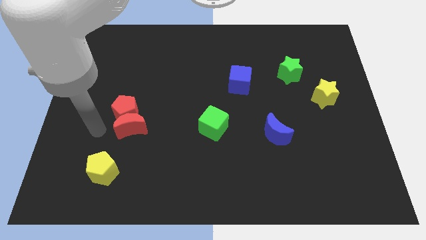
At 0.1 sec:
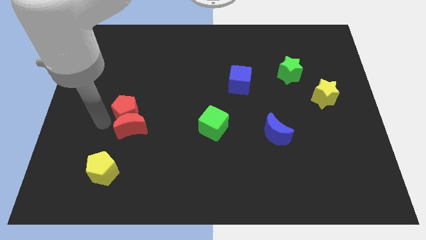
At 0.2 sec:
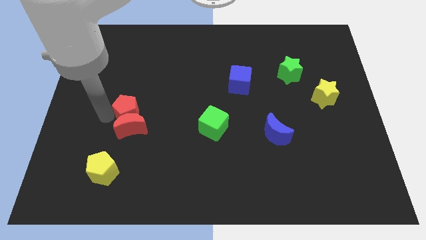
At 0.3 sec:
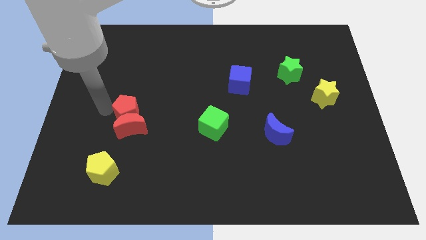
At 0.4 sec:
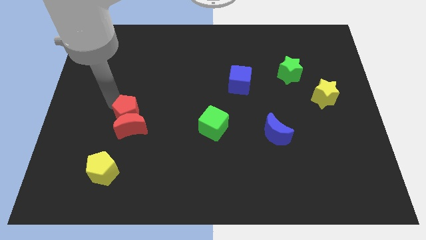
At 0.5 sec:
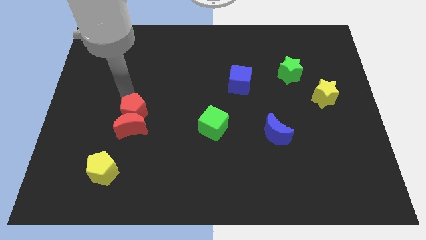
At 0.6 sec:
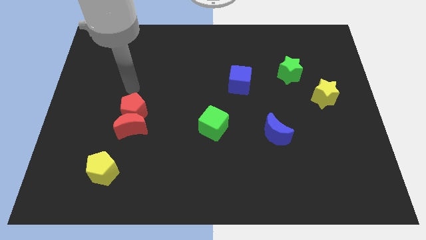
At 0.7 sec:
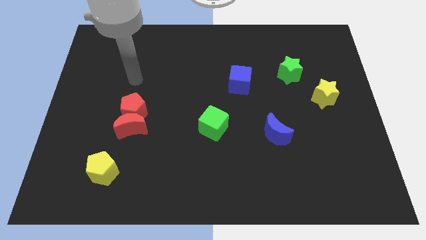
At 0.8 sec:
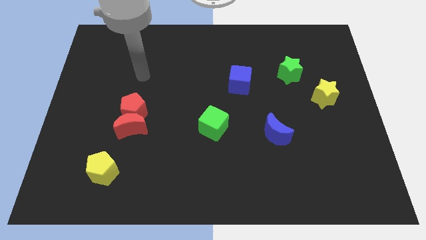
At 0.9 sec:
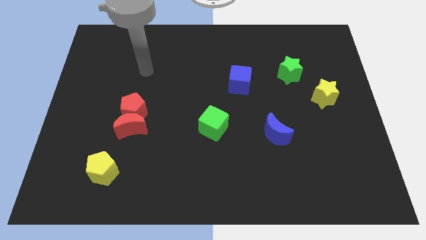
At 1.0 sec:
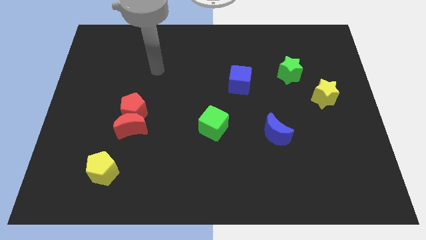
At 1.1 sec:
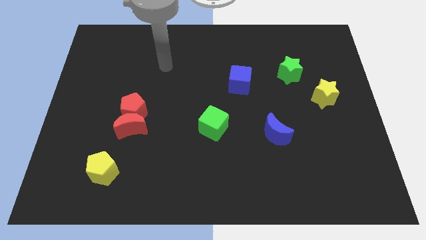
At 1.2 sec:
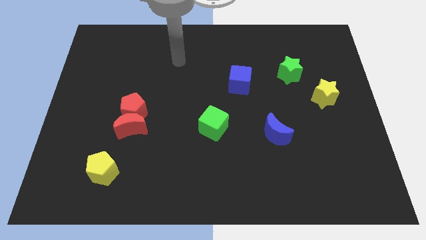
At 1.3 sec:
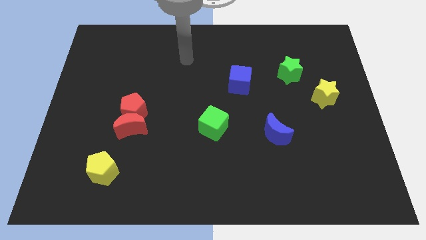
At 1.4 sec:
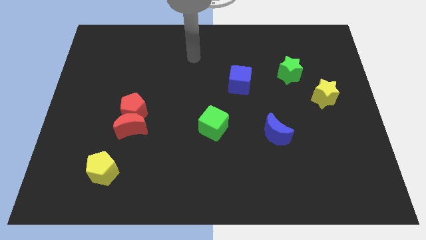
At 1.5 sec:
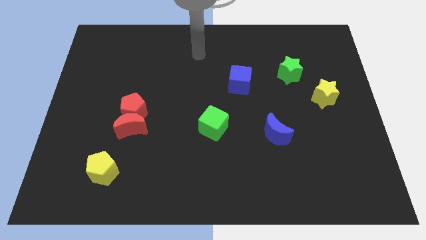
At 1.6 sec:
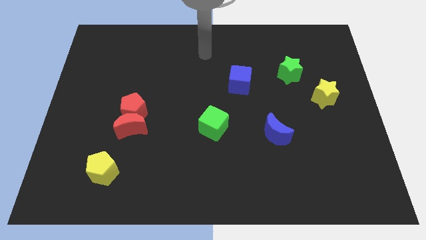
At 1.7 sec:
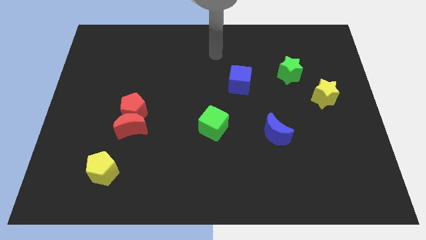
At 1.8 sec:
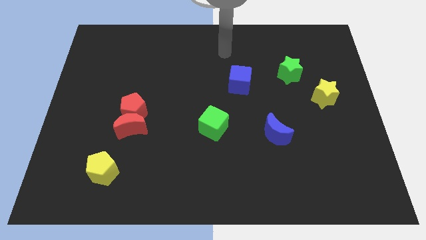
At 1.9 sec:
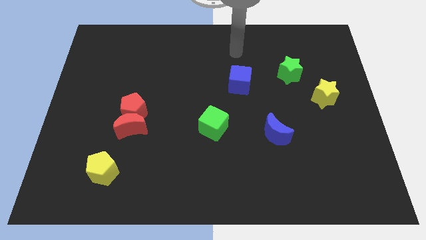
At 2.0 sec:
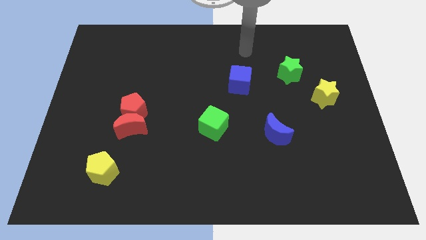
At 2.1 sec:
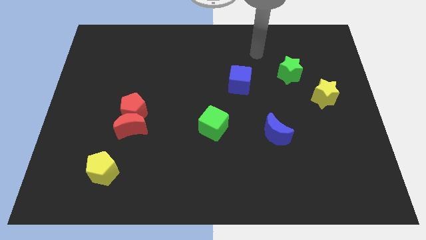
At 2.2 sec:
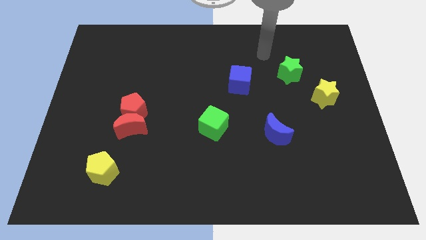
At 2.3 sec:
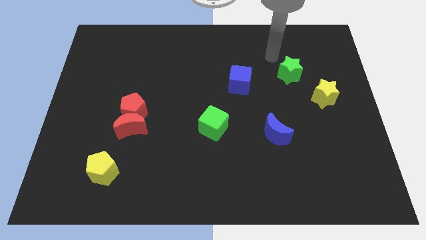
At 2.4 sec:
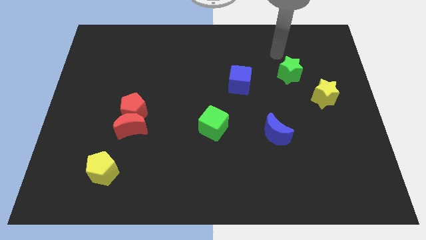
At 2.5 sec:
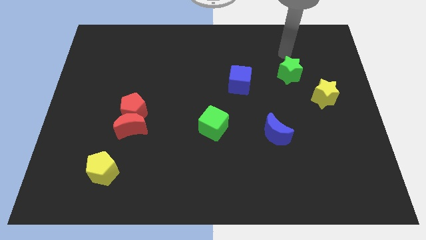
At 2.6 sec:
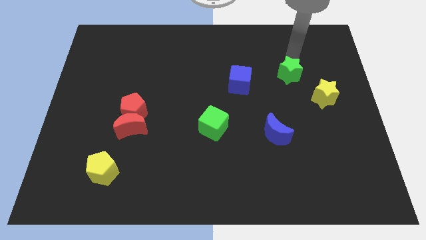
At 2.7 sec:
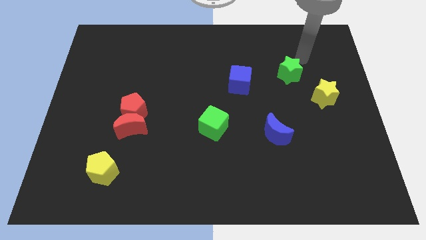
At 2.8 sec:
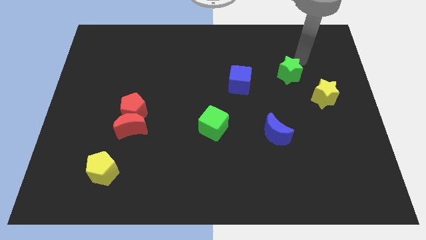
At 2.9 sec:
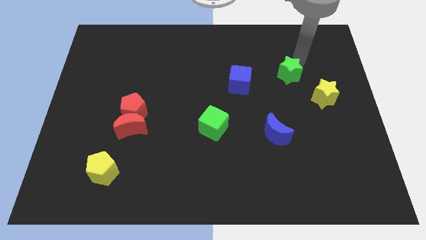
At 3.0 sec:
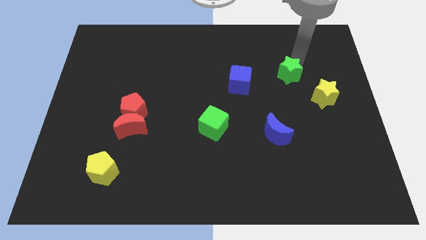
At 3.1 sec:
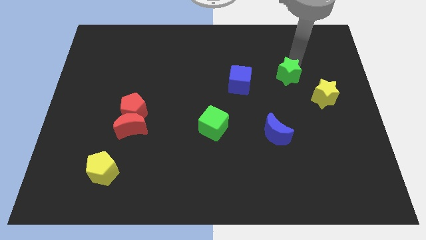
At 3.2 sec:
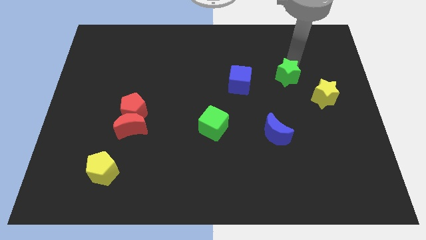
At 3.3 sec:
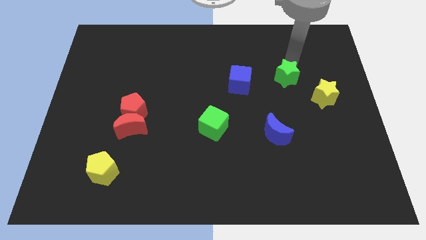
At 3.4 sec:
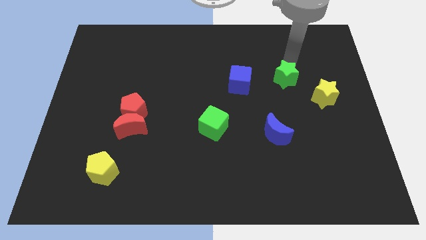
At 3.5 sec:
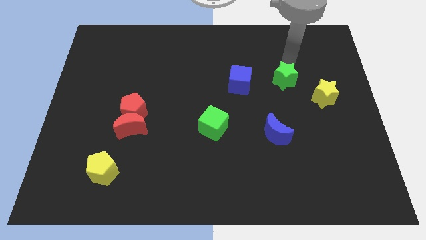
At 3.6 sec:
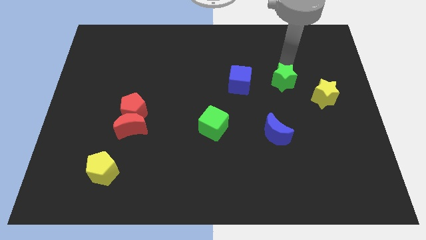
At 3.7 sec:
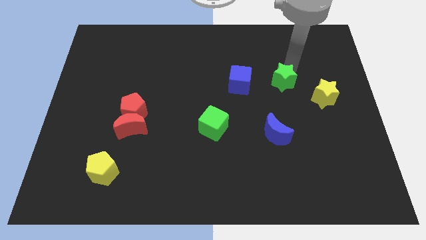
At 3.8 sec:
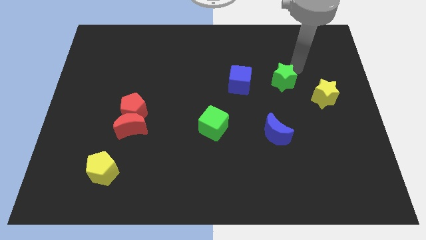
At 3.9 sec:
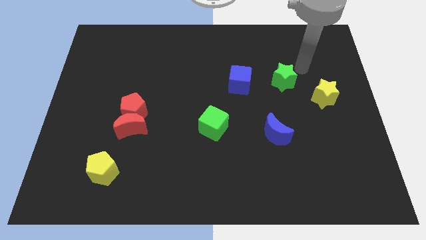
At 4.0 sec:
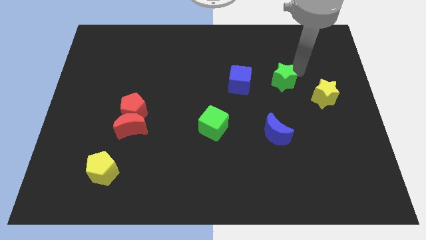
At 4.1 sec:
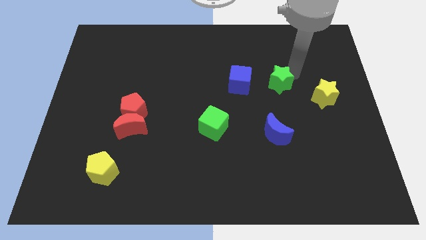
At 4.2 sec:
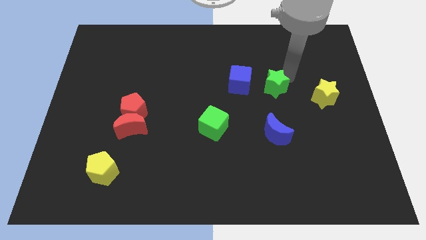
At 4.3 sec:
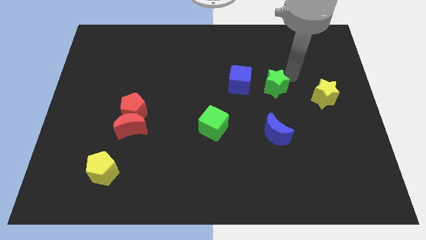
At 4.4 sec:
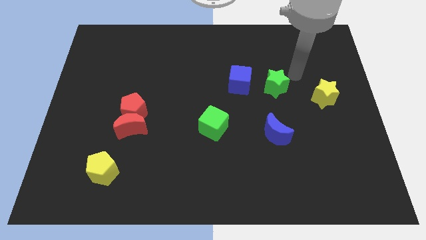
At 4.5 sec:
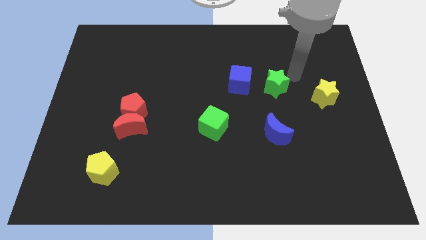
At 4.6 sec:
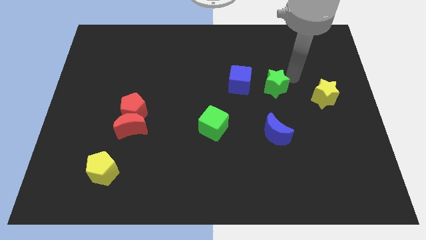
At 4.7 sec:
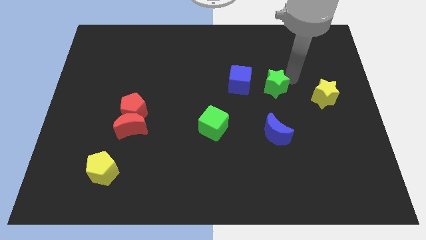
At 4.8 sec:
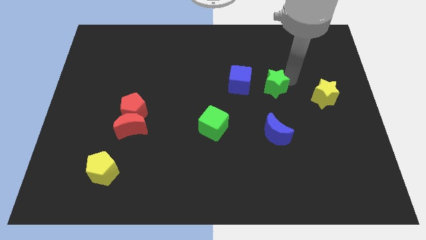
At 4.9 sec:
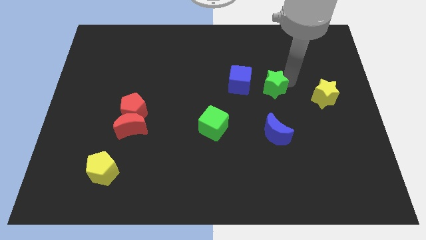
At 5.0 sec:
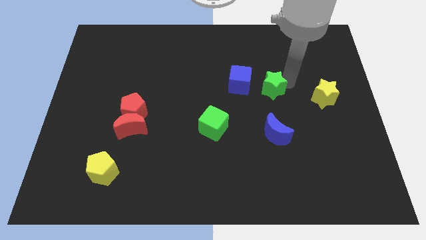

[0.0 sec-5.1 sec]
move the green star downwards and left a little

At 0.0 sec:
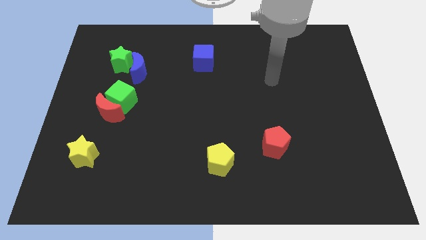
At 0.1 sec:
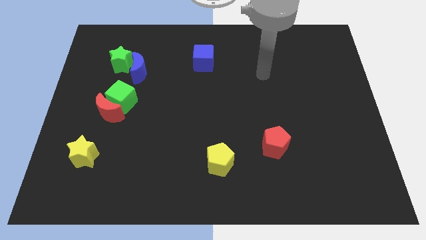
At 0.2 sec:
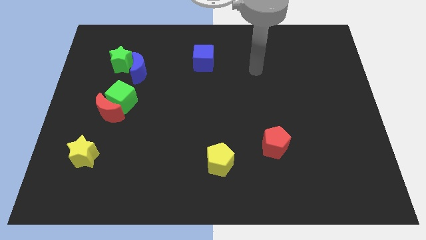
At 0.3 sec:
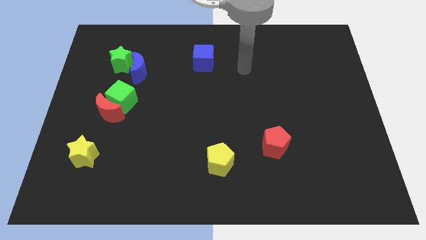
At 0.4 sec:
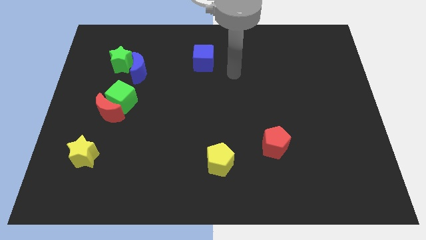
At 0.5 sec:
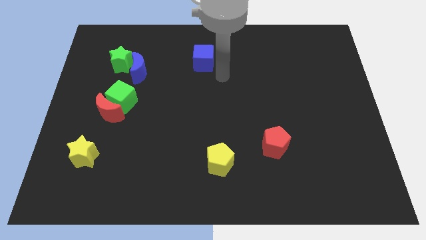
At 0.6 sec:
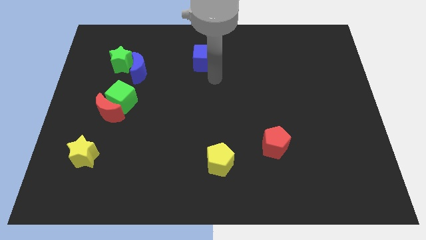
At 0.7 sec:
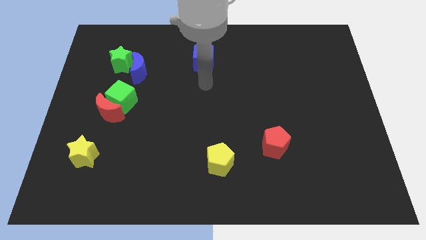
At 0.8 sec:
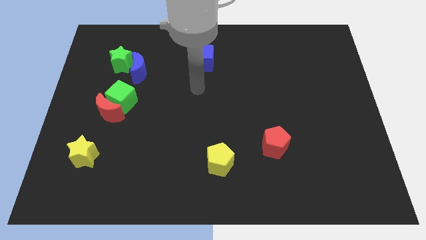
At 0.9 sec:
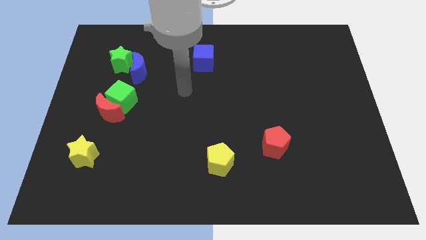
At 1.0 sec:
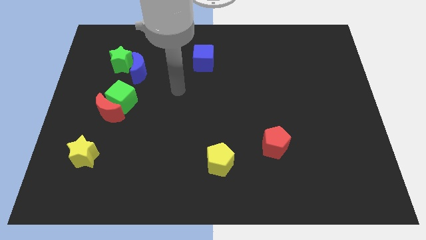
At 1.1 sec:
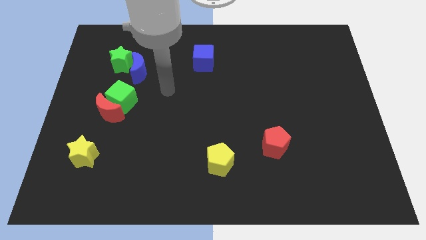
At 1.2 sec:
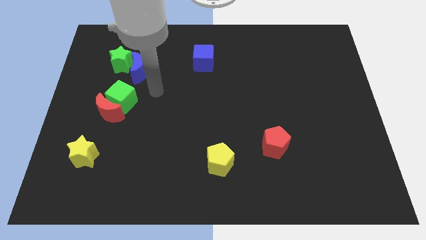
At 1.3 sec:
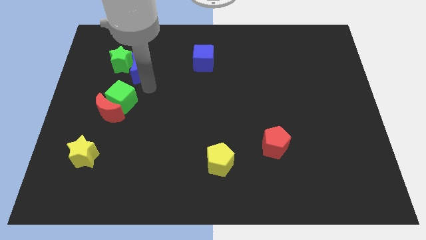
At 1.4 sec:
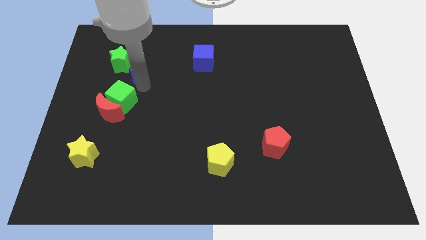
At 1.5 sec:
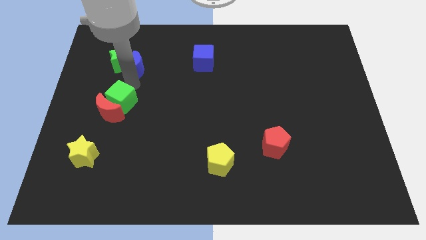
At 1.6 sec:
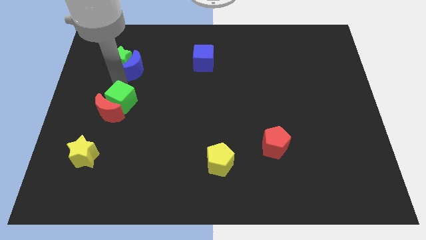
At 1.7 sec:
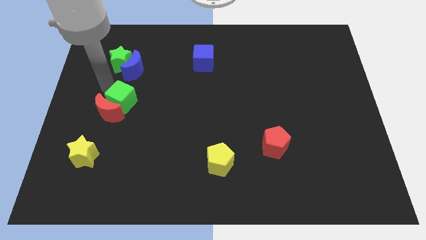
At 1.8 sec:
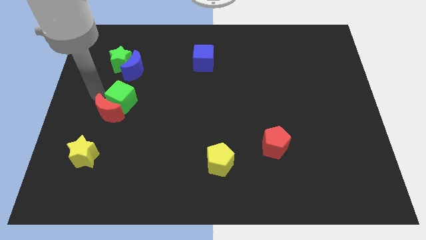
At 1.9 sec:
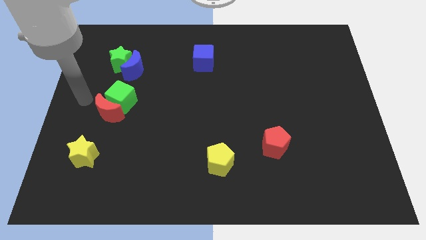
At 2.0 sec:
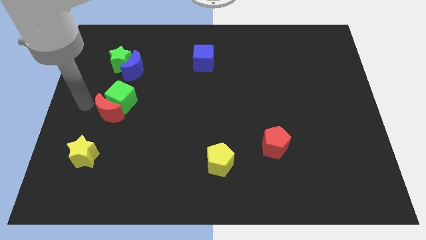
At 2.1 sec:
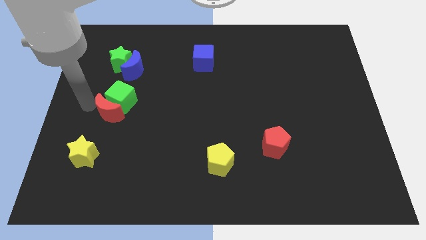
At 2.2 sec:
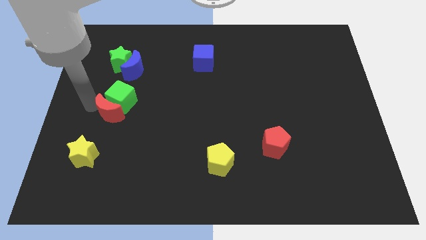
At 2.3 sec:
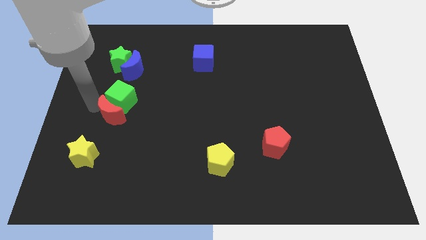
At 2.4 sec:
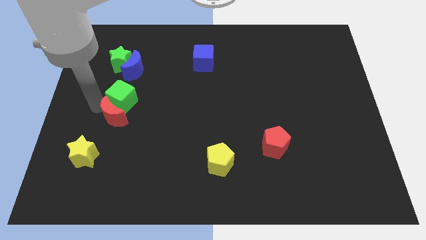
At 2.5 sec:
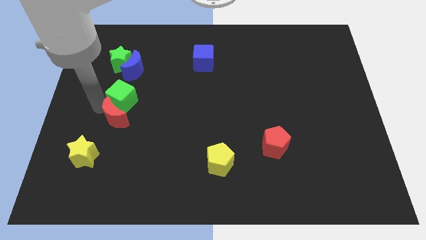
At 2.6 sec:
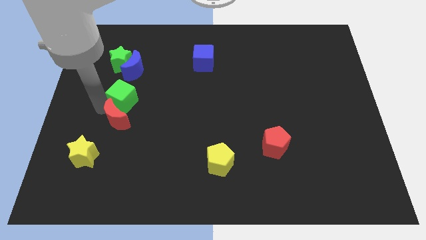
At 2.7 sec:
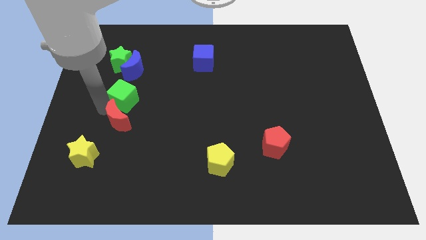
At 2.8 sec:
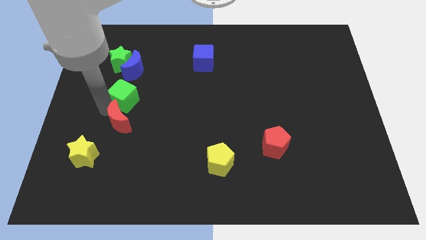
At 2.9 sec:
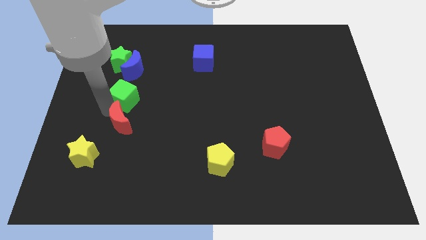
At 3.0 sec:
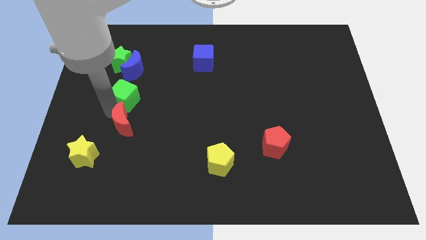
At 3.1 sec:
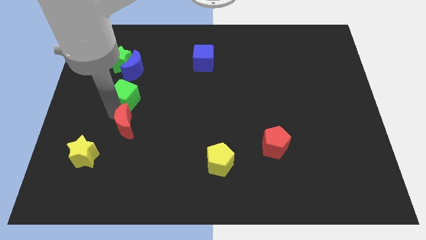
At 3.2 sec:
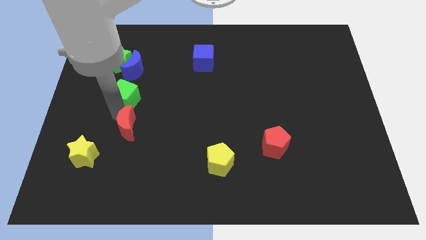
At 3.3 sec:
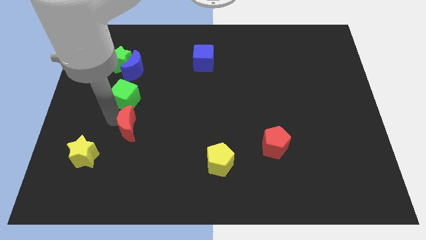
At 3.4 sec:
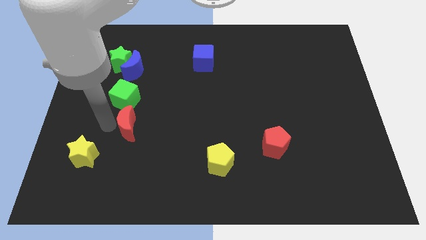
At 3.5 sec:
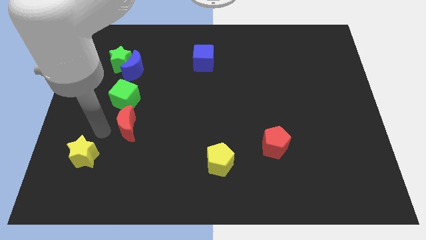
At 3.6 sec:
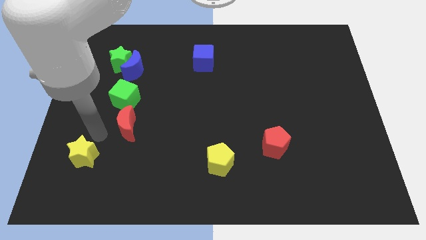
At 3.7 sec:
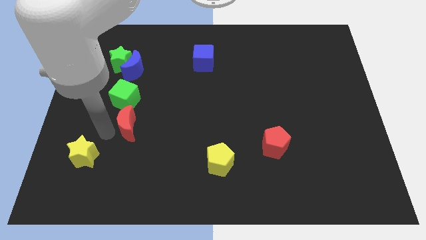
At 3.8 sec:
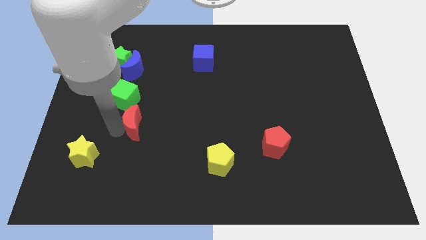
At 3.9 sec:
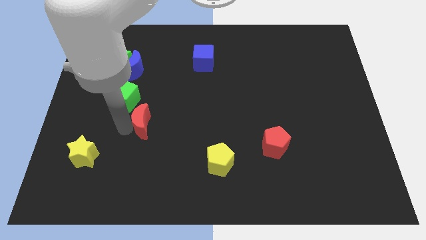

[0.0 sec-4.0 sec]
move the red moon right somewhat
